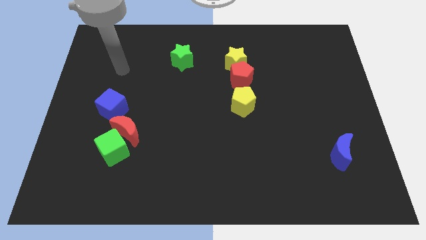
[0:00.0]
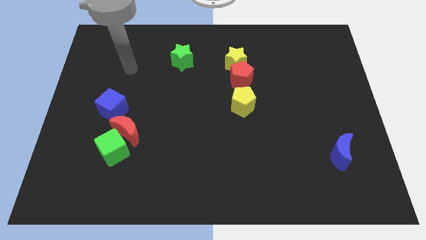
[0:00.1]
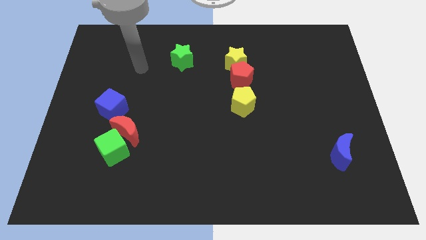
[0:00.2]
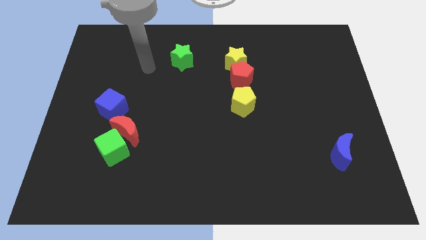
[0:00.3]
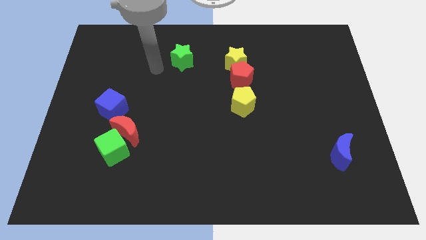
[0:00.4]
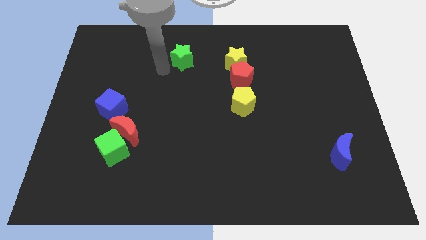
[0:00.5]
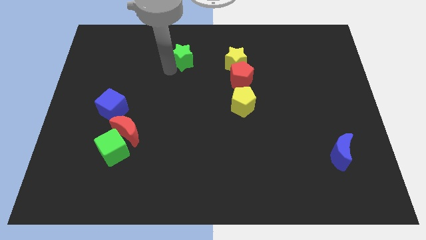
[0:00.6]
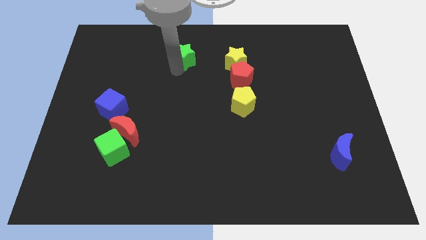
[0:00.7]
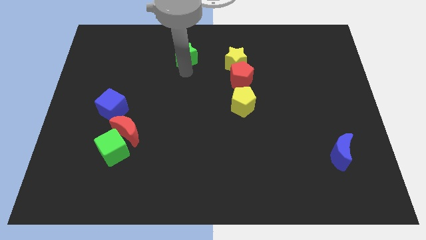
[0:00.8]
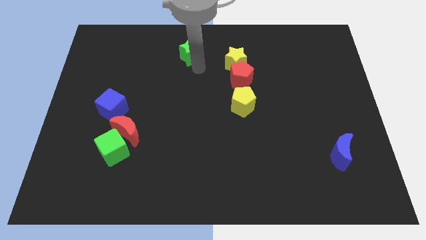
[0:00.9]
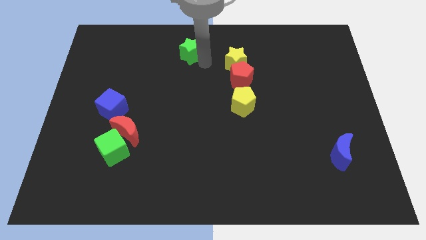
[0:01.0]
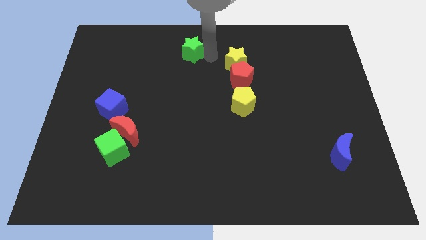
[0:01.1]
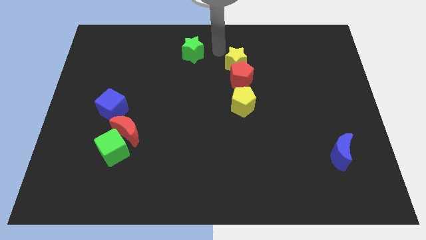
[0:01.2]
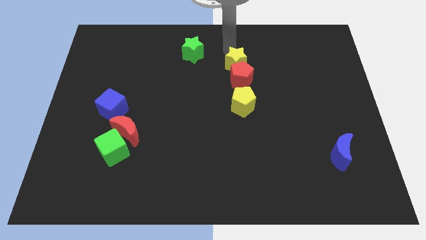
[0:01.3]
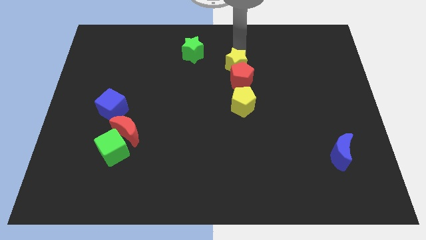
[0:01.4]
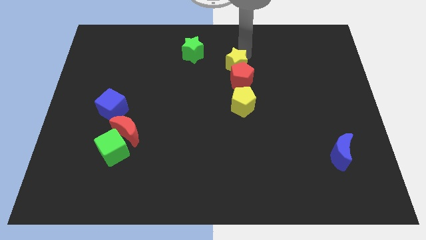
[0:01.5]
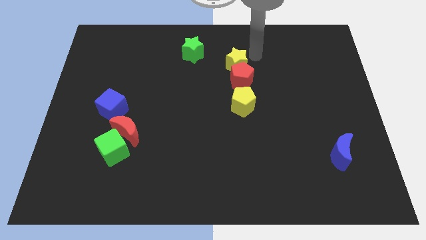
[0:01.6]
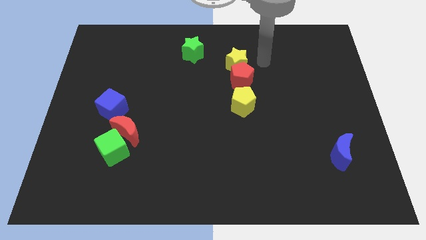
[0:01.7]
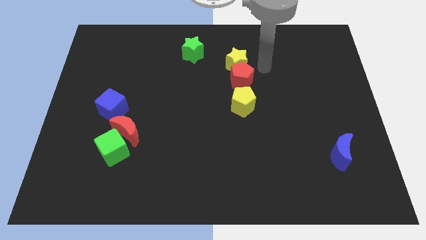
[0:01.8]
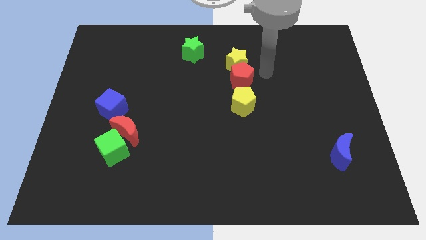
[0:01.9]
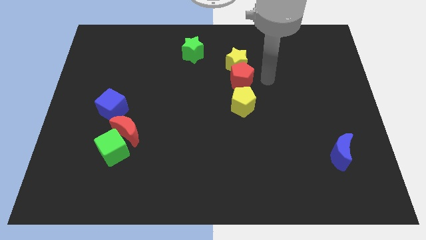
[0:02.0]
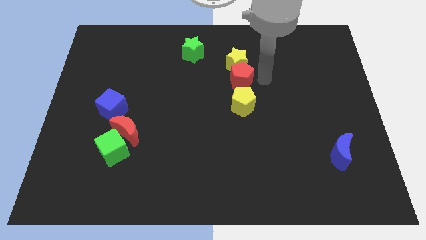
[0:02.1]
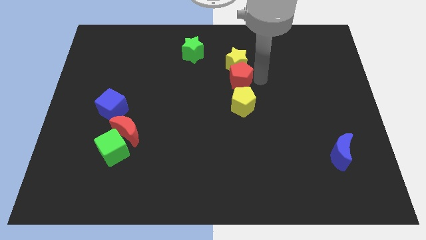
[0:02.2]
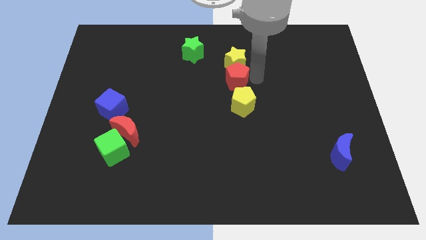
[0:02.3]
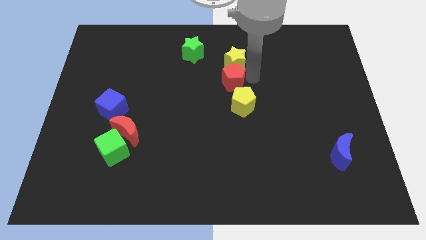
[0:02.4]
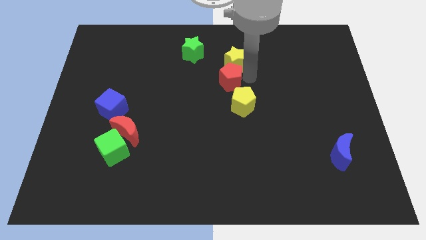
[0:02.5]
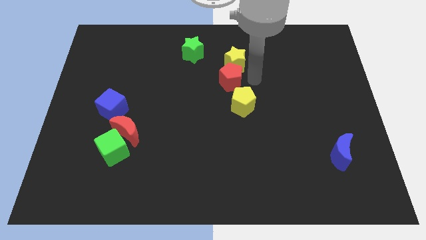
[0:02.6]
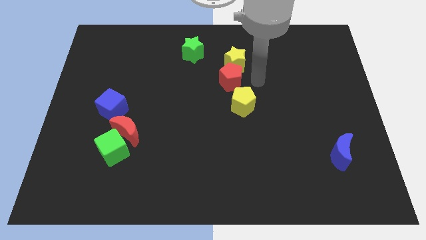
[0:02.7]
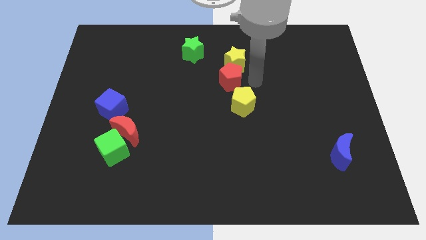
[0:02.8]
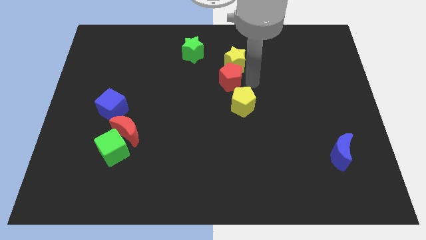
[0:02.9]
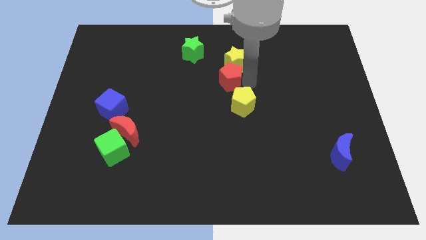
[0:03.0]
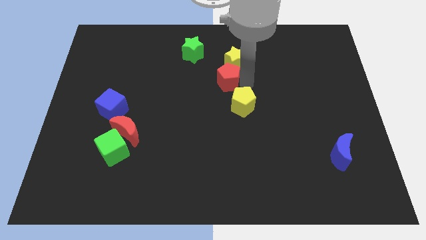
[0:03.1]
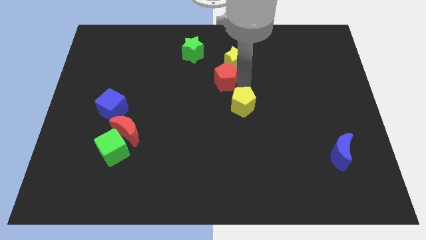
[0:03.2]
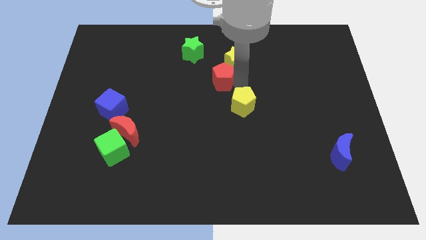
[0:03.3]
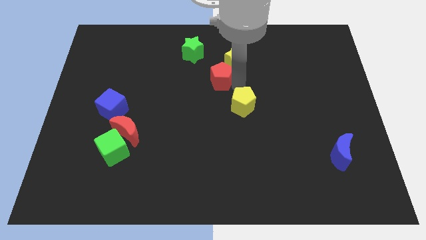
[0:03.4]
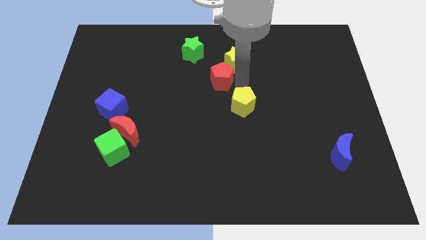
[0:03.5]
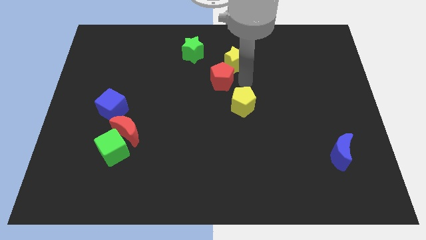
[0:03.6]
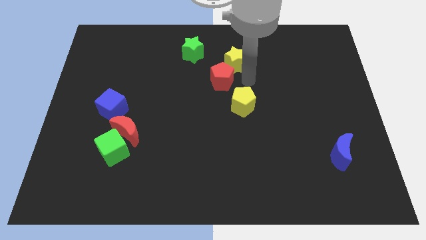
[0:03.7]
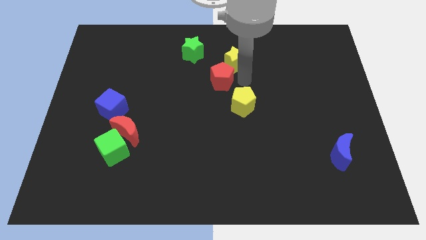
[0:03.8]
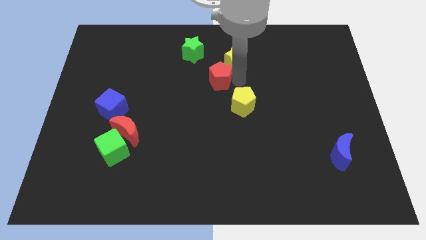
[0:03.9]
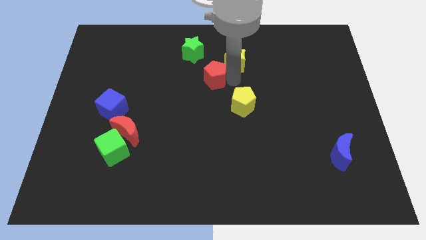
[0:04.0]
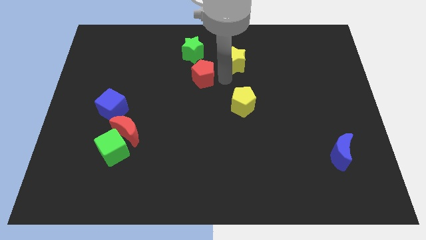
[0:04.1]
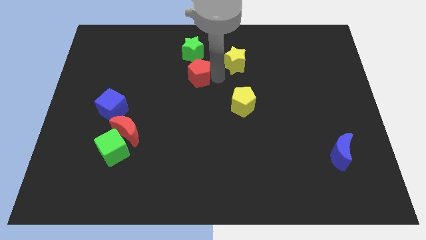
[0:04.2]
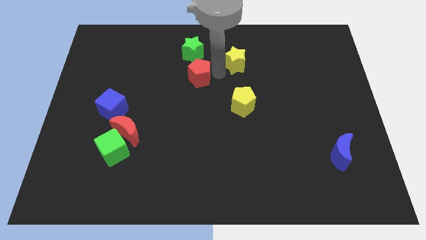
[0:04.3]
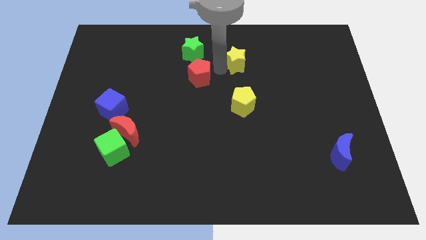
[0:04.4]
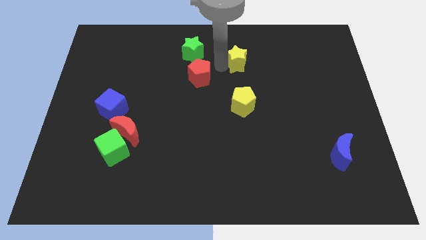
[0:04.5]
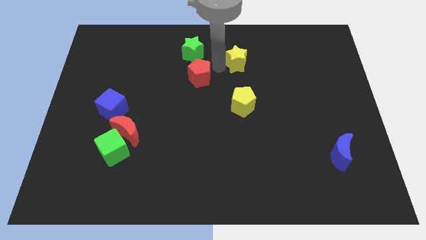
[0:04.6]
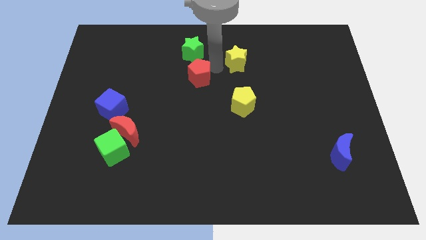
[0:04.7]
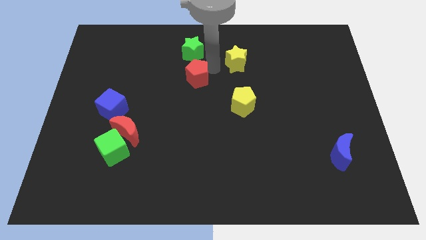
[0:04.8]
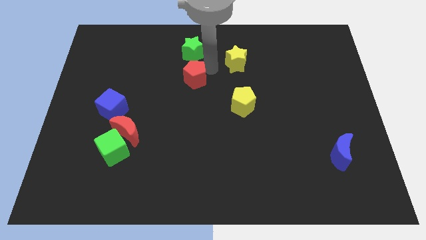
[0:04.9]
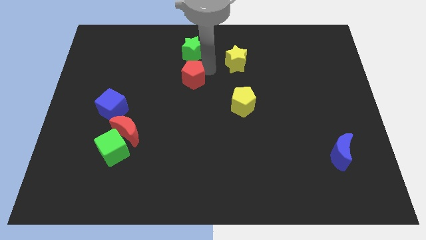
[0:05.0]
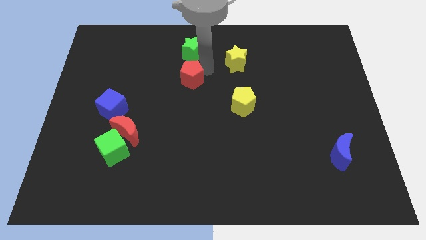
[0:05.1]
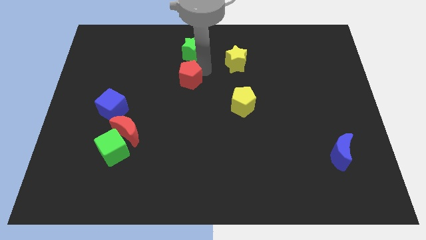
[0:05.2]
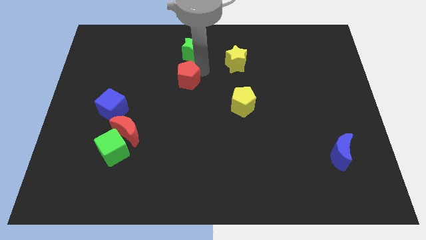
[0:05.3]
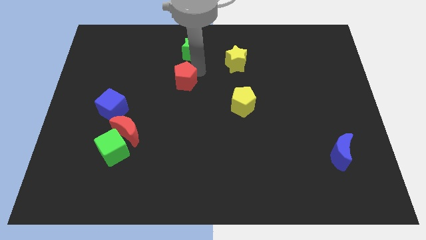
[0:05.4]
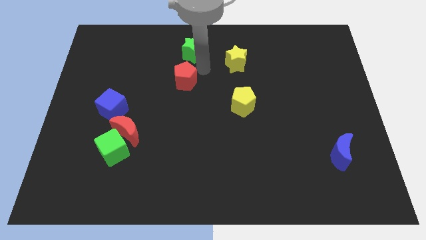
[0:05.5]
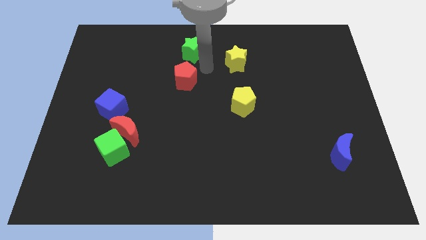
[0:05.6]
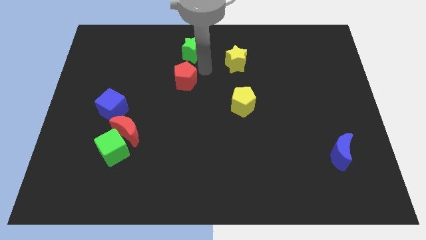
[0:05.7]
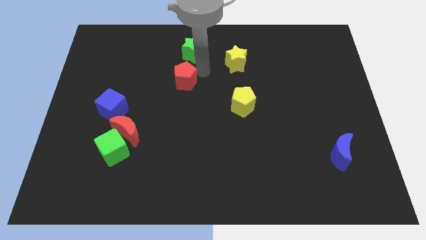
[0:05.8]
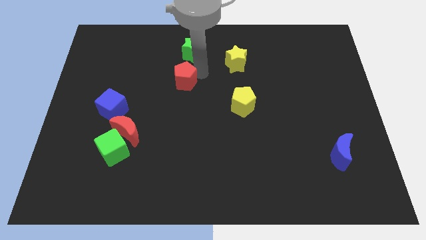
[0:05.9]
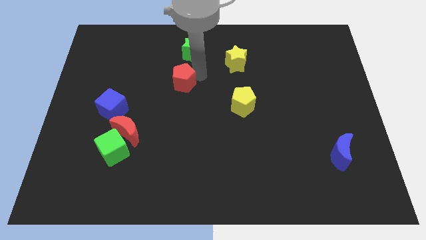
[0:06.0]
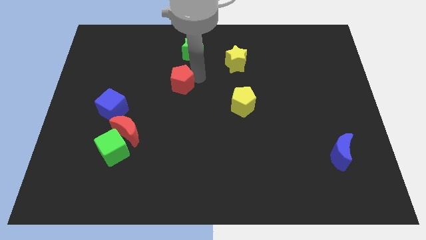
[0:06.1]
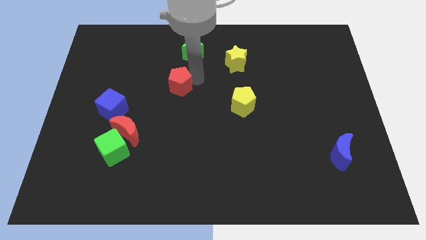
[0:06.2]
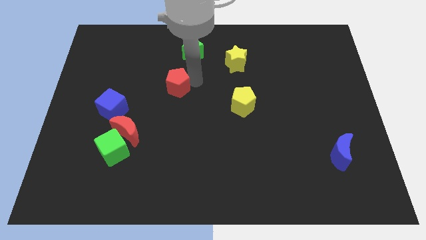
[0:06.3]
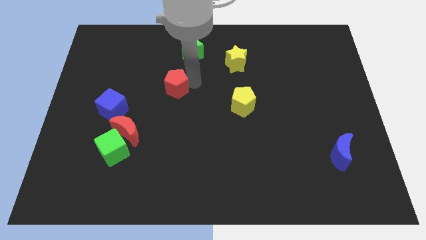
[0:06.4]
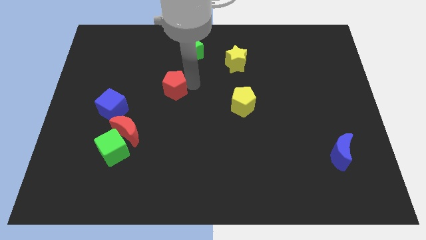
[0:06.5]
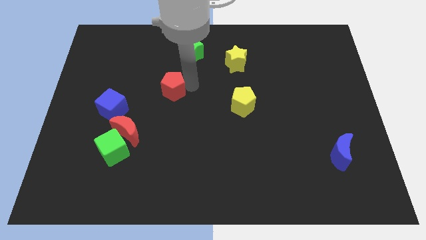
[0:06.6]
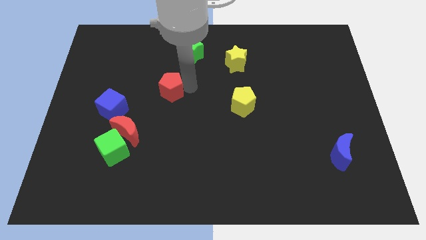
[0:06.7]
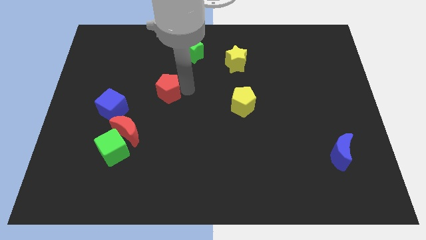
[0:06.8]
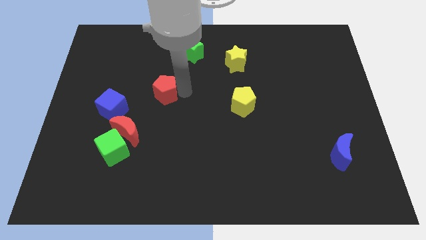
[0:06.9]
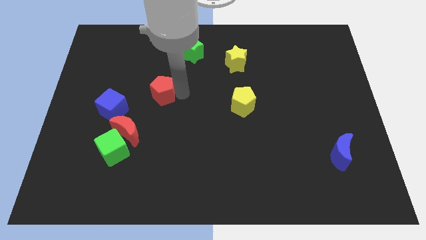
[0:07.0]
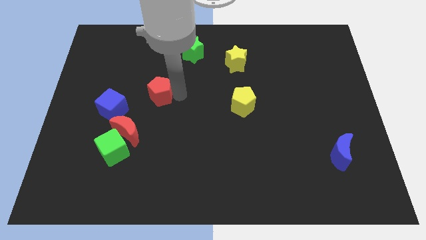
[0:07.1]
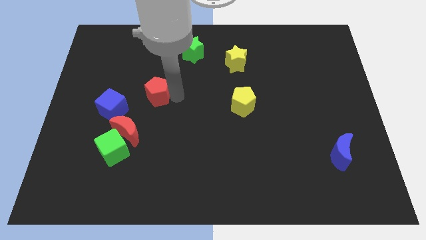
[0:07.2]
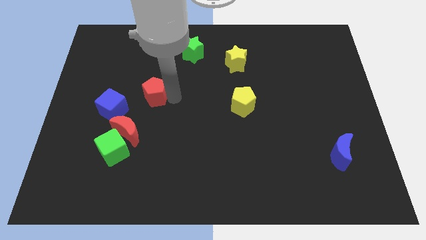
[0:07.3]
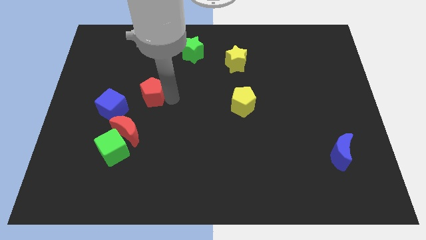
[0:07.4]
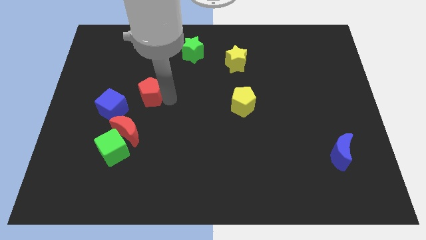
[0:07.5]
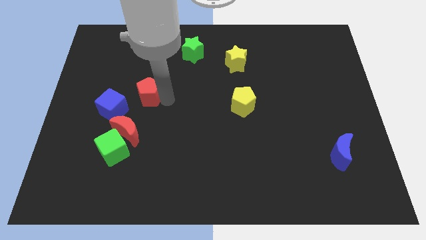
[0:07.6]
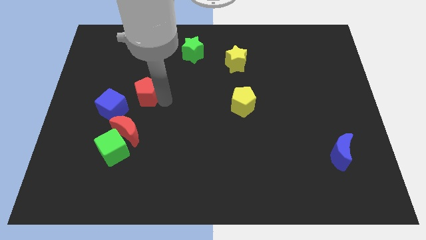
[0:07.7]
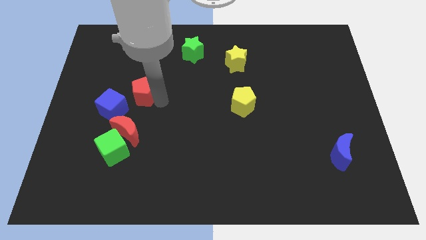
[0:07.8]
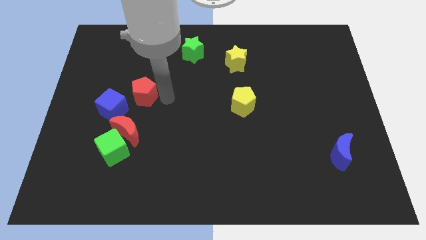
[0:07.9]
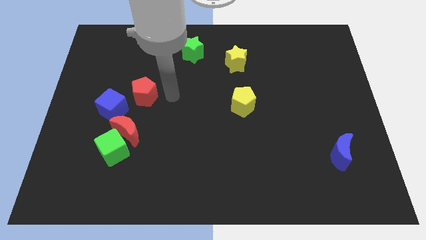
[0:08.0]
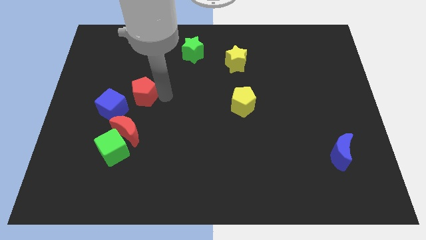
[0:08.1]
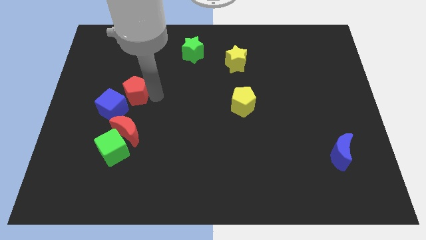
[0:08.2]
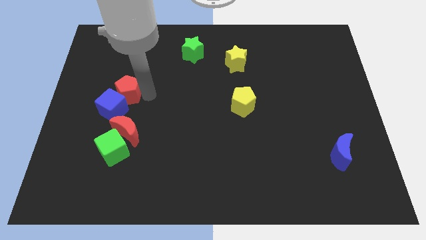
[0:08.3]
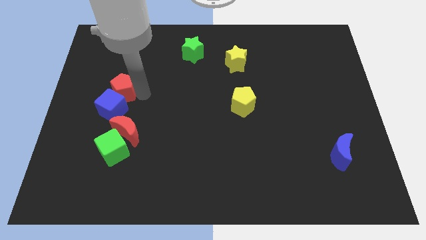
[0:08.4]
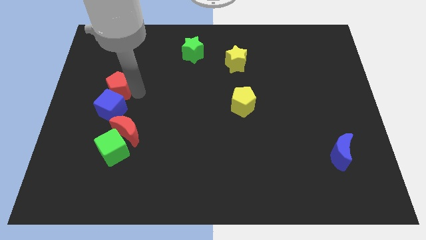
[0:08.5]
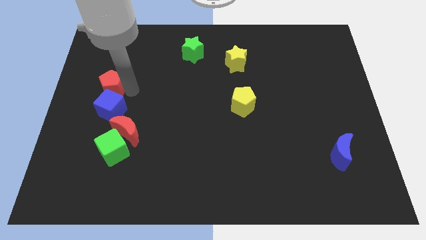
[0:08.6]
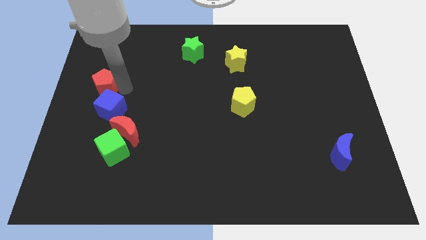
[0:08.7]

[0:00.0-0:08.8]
push the red pentagon to the left side of the board
